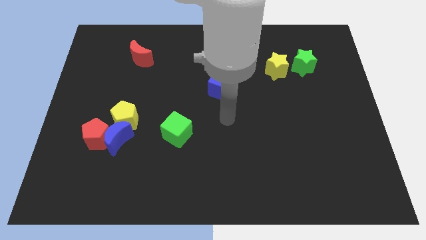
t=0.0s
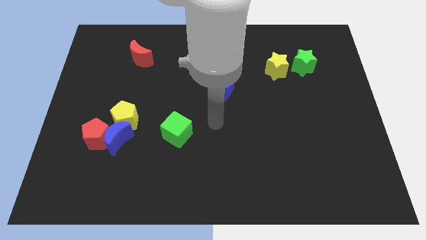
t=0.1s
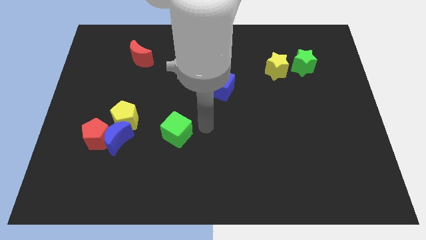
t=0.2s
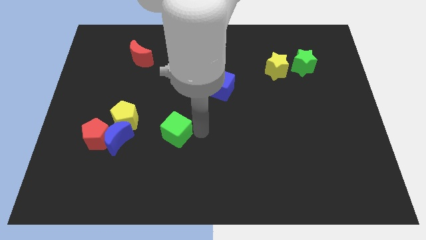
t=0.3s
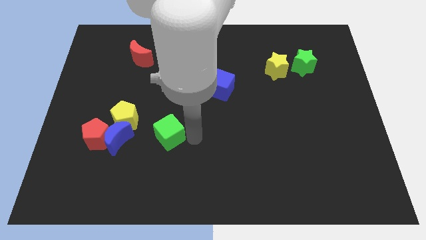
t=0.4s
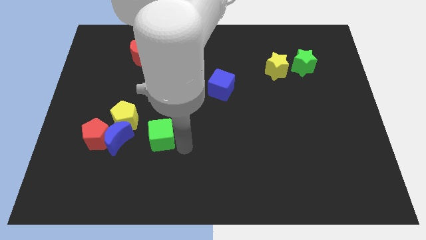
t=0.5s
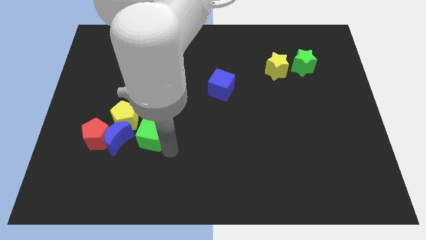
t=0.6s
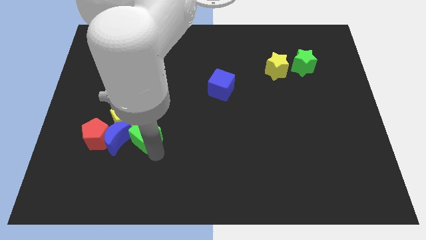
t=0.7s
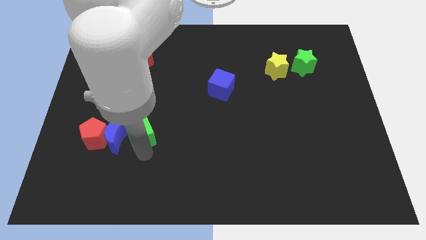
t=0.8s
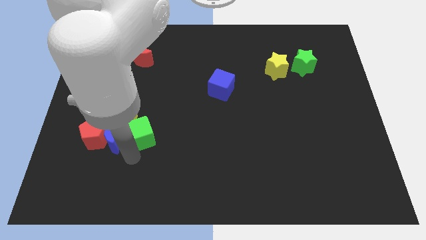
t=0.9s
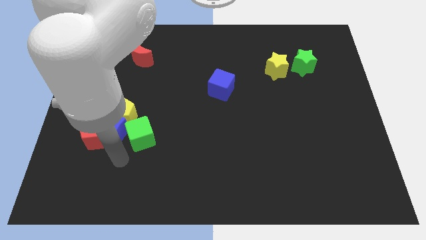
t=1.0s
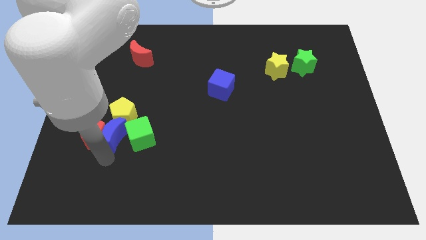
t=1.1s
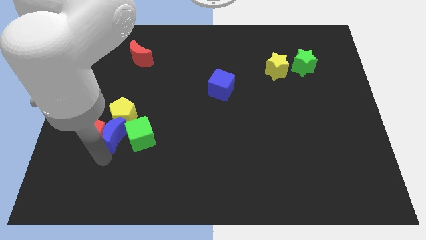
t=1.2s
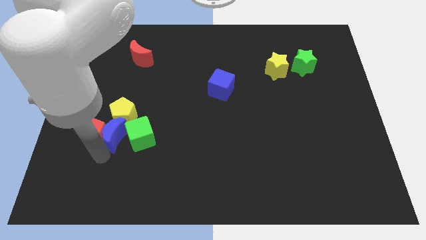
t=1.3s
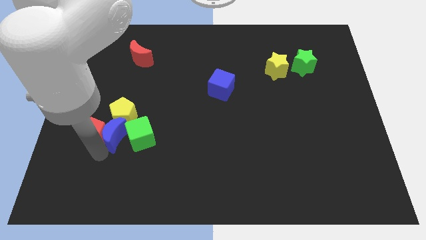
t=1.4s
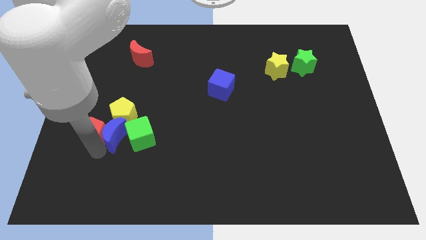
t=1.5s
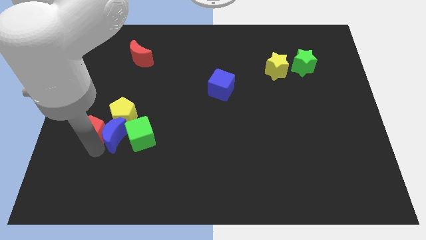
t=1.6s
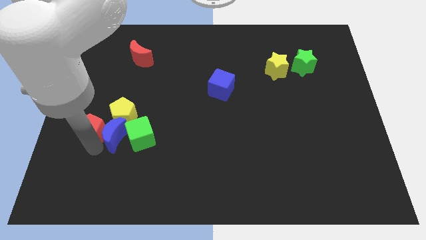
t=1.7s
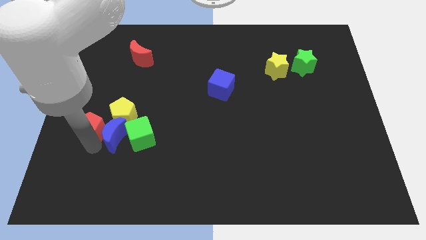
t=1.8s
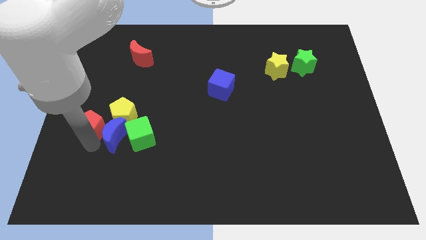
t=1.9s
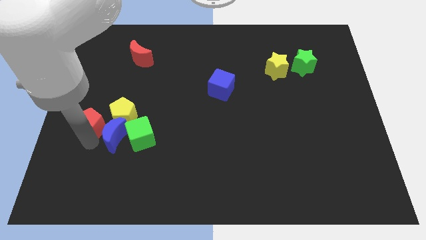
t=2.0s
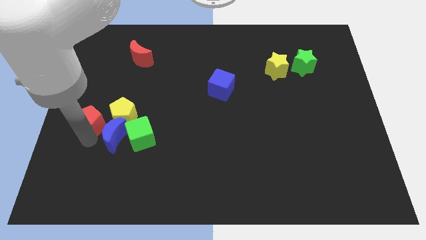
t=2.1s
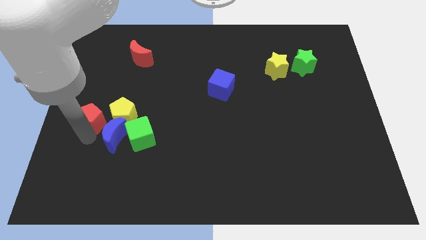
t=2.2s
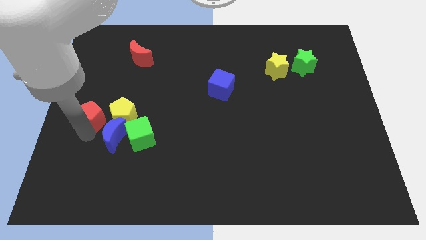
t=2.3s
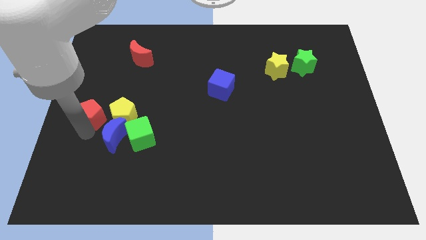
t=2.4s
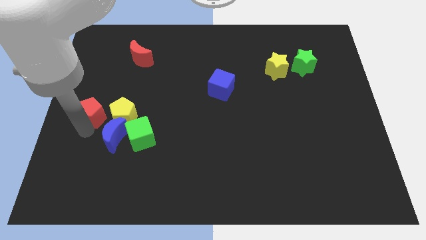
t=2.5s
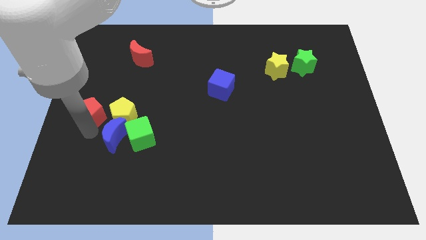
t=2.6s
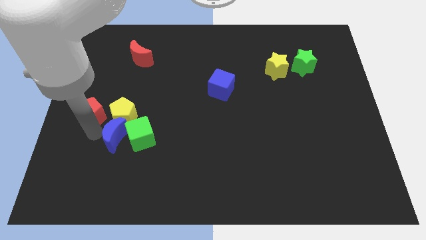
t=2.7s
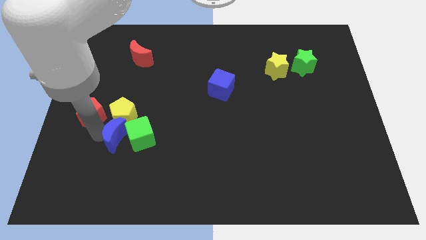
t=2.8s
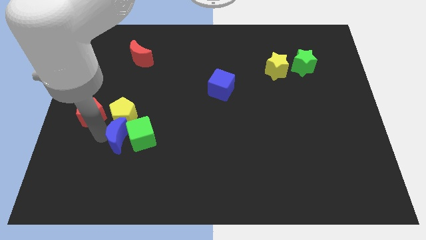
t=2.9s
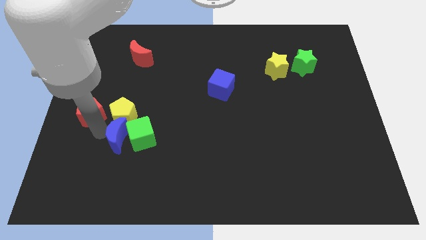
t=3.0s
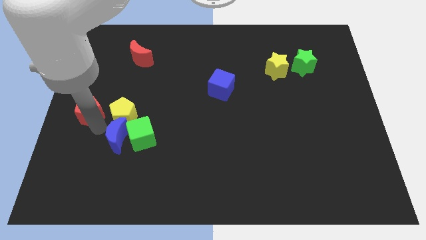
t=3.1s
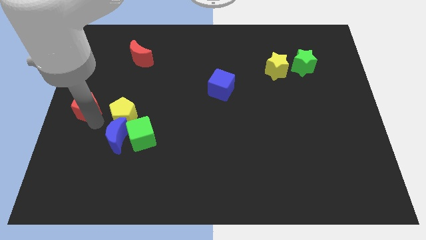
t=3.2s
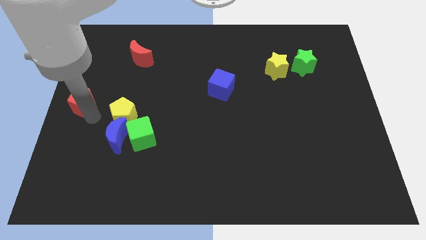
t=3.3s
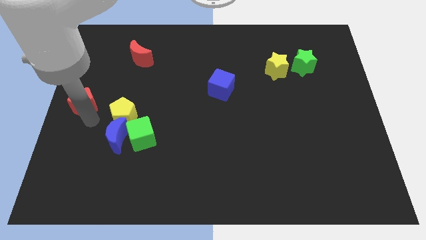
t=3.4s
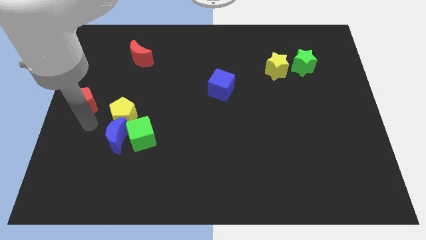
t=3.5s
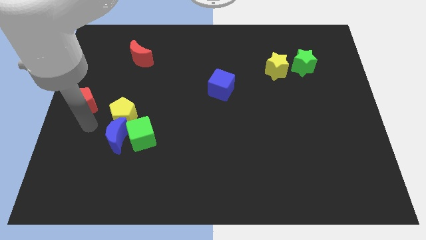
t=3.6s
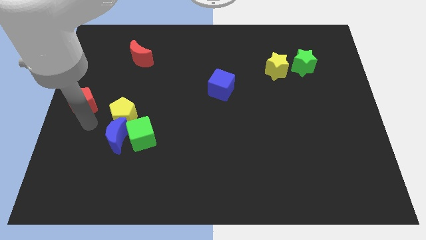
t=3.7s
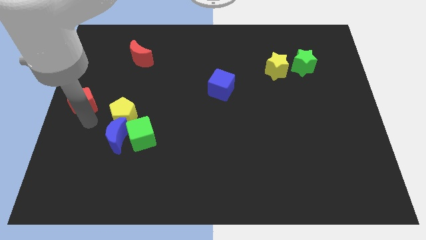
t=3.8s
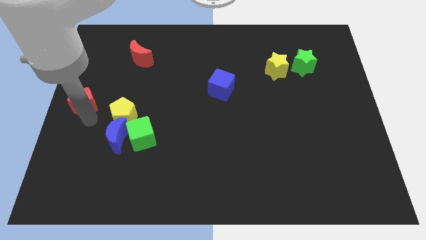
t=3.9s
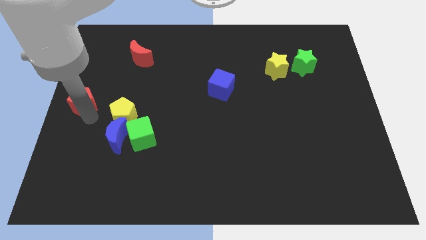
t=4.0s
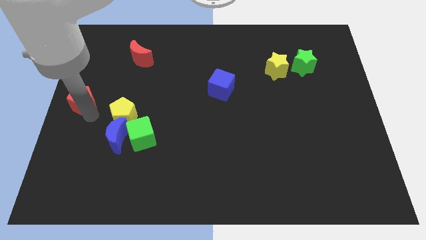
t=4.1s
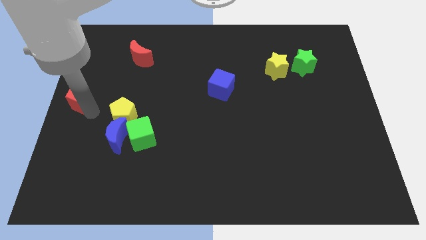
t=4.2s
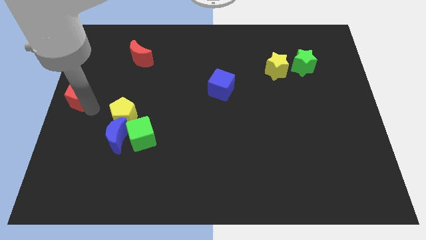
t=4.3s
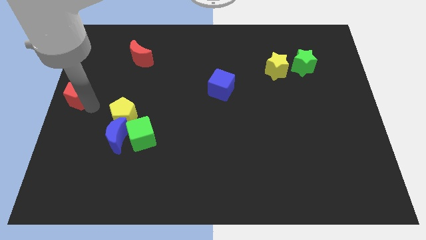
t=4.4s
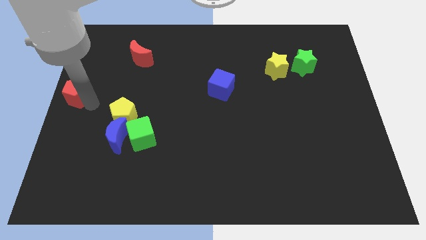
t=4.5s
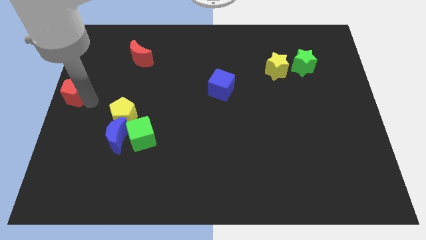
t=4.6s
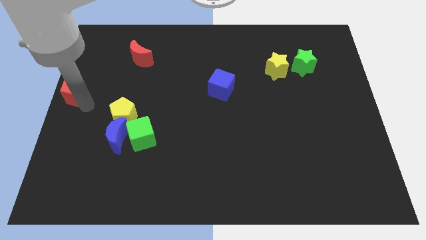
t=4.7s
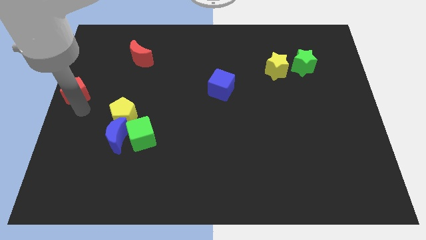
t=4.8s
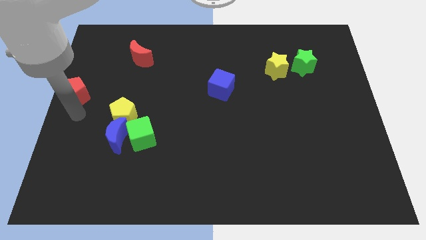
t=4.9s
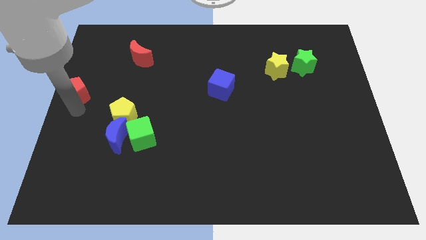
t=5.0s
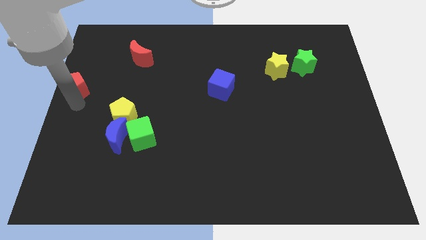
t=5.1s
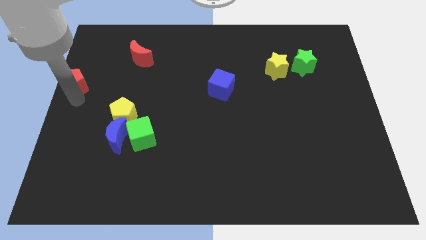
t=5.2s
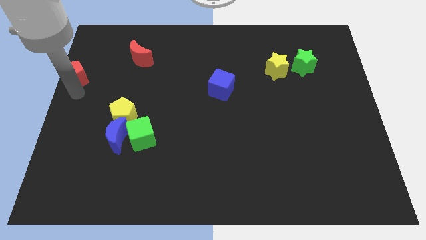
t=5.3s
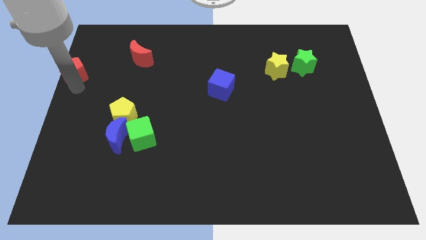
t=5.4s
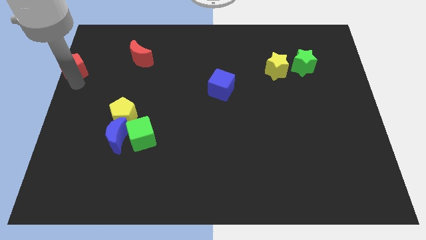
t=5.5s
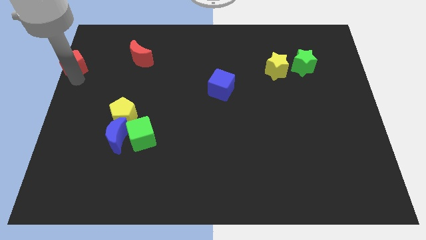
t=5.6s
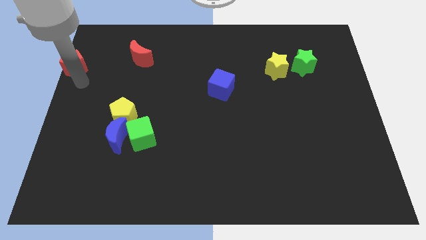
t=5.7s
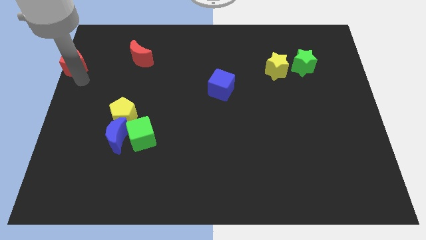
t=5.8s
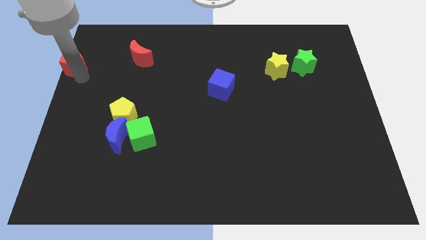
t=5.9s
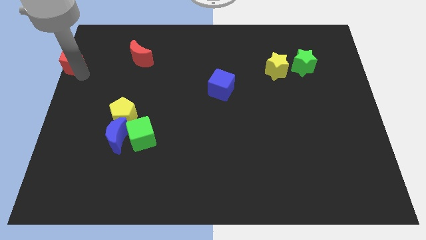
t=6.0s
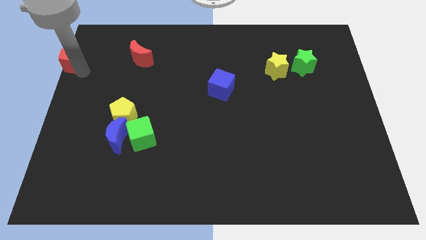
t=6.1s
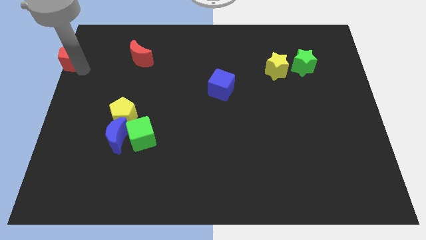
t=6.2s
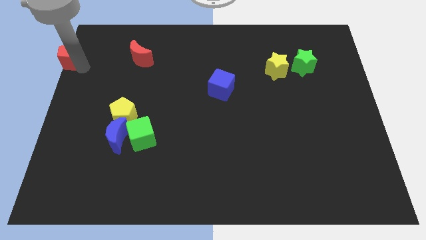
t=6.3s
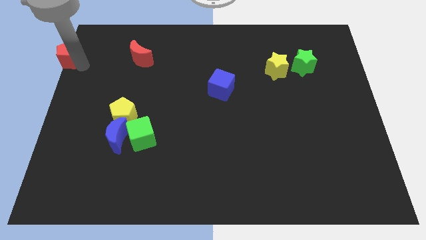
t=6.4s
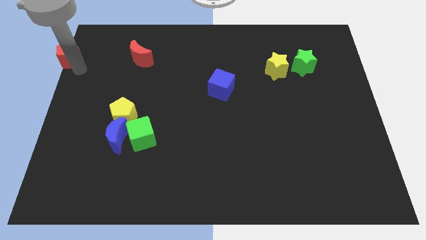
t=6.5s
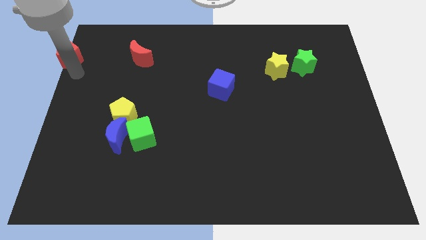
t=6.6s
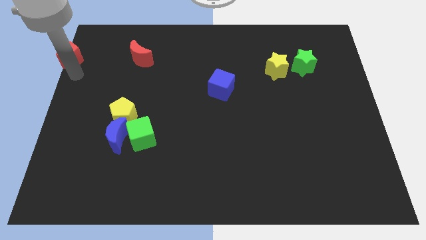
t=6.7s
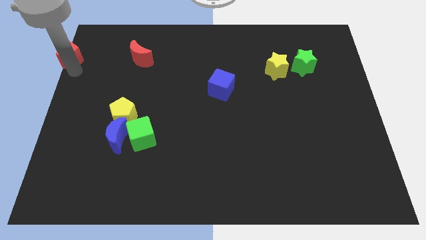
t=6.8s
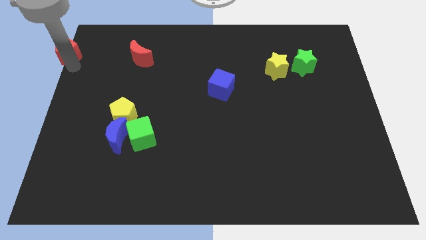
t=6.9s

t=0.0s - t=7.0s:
move the red pentagon to the top left of the board
